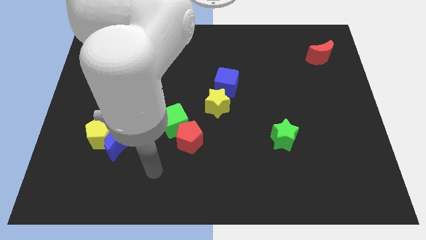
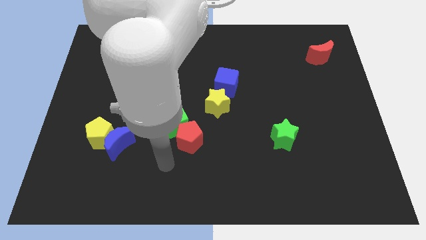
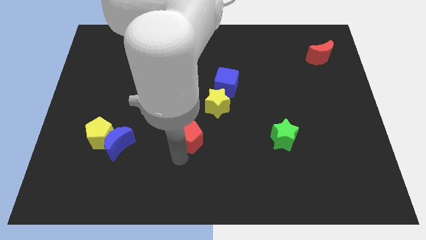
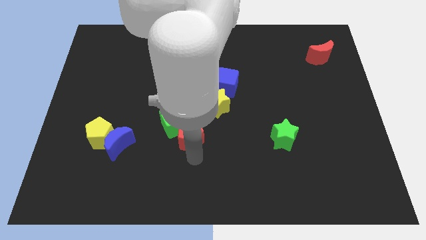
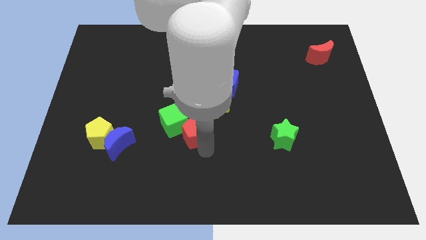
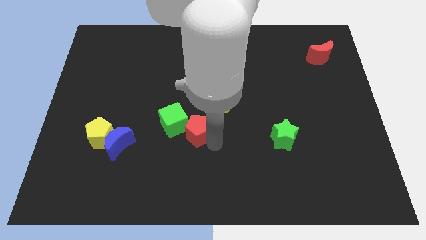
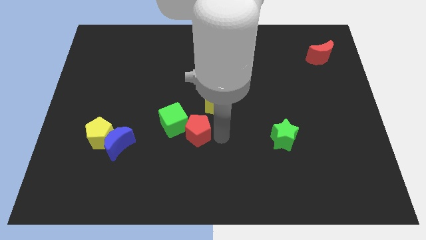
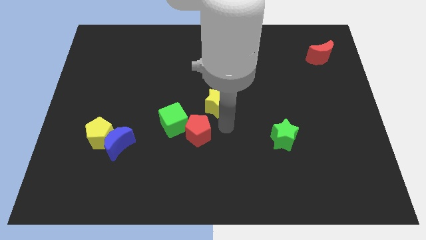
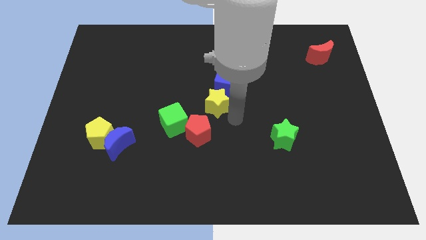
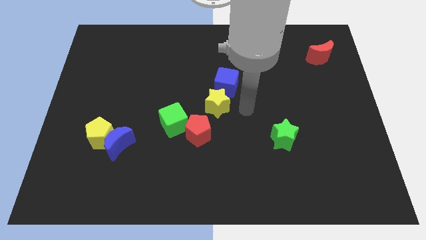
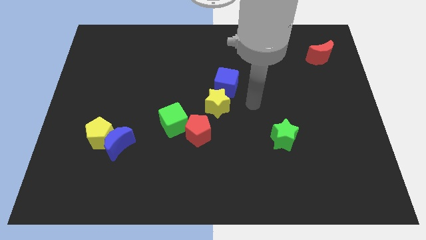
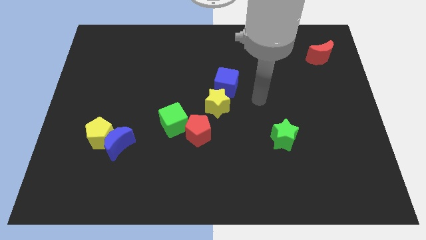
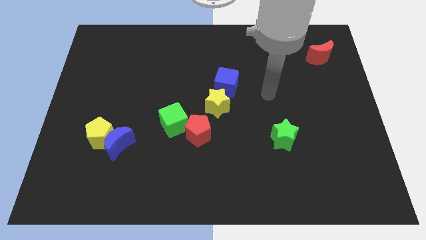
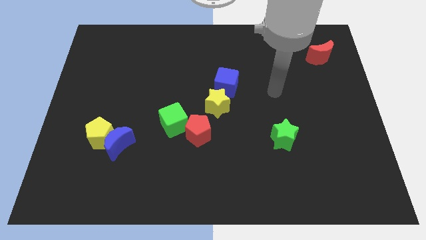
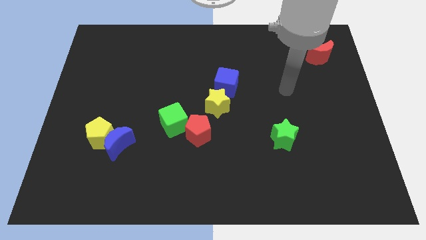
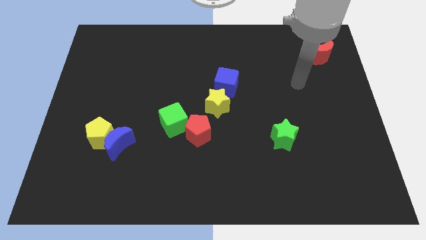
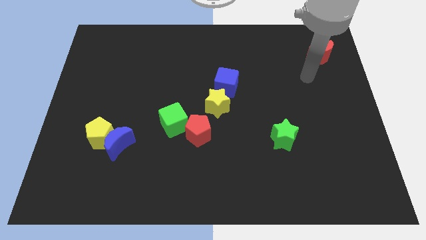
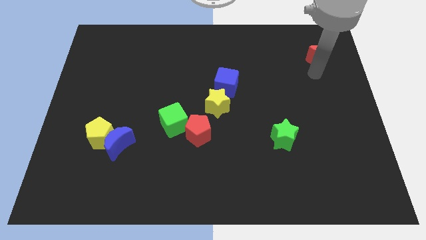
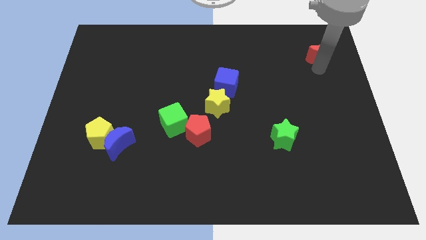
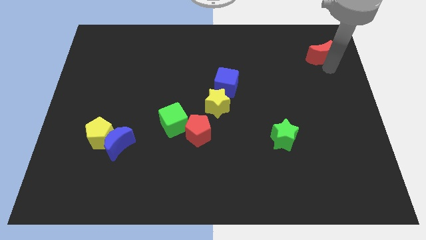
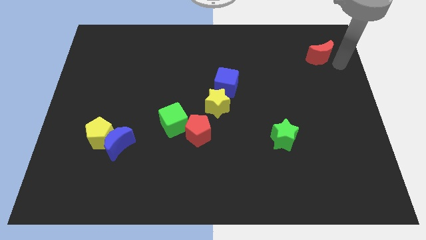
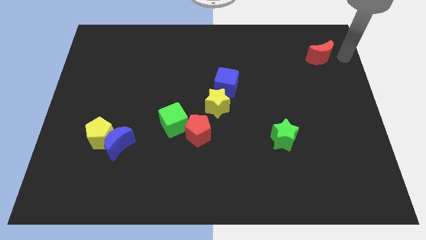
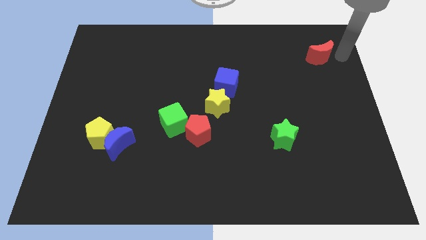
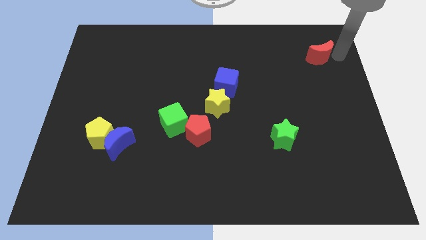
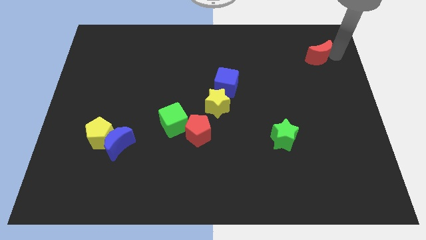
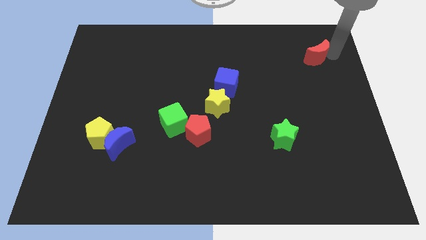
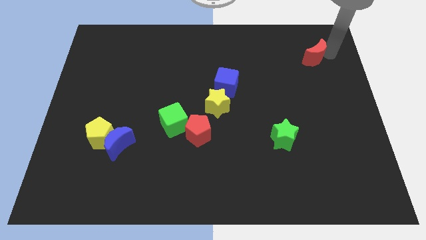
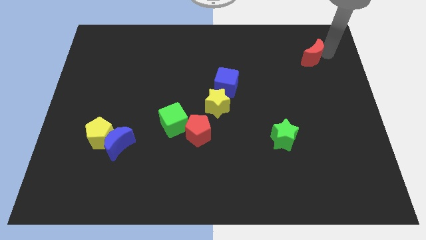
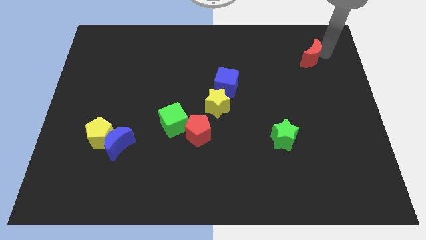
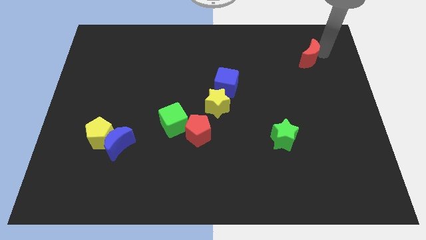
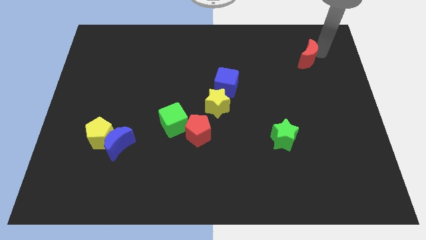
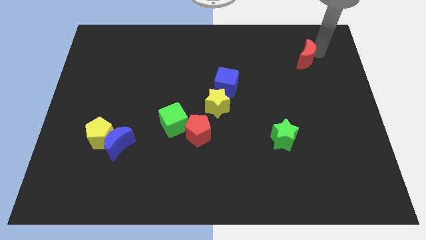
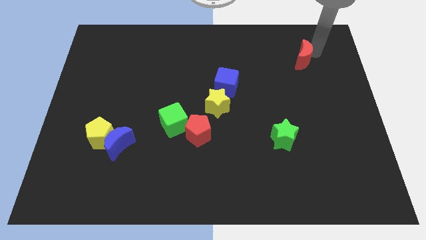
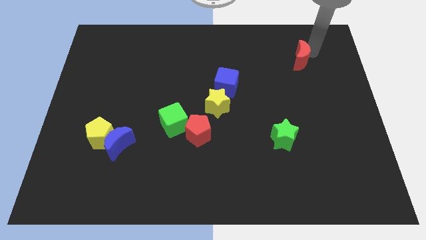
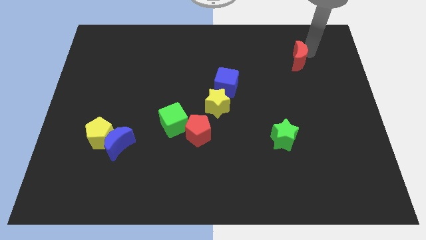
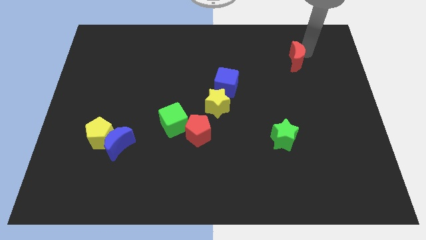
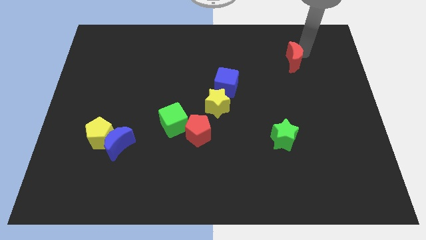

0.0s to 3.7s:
slide the red moon to the left a little

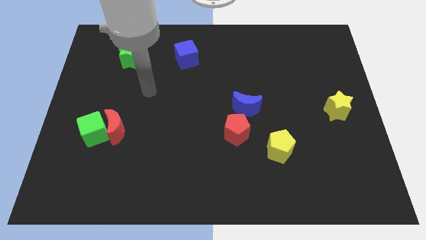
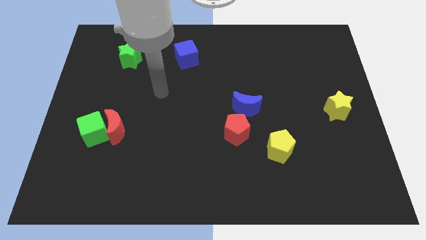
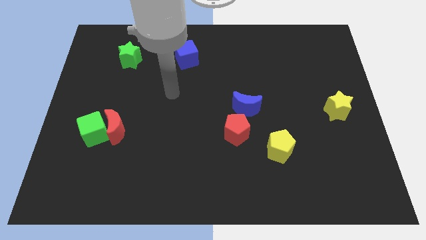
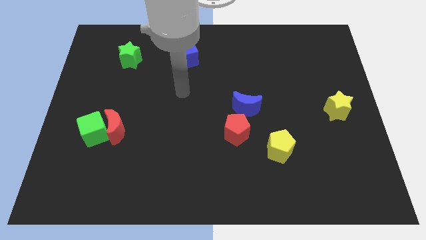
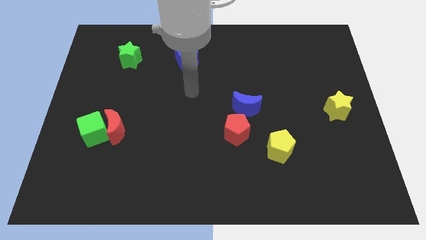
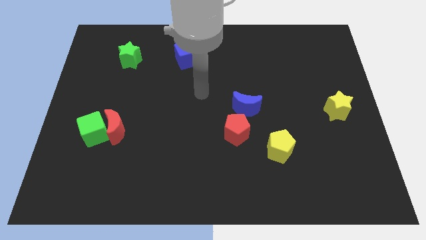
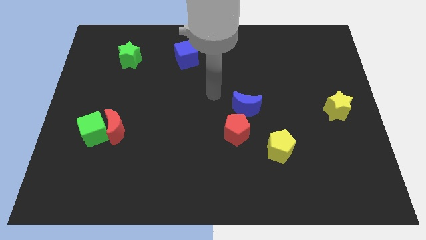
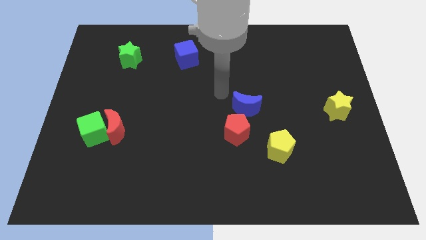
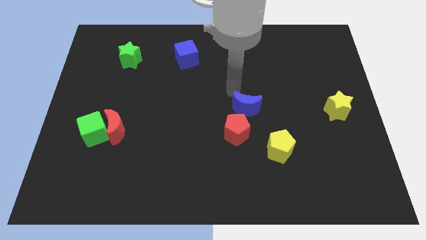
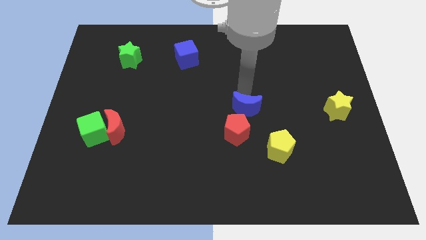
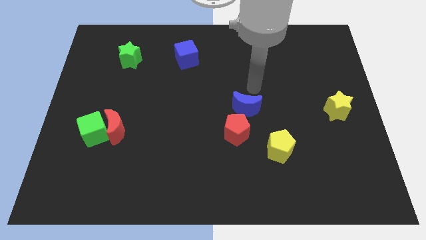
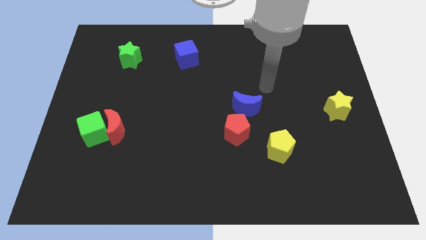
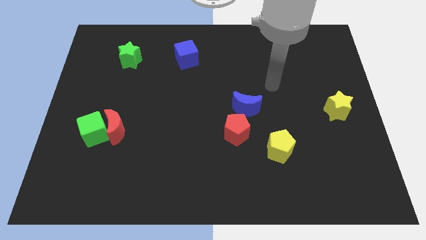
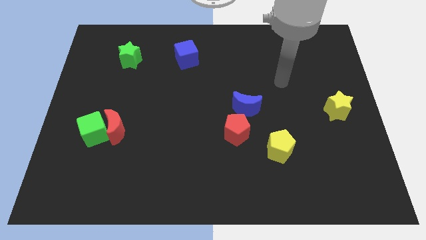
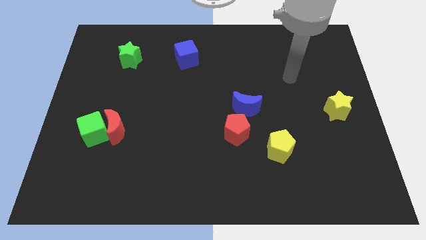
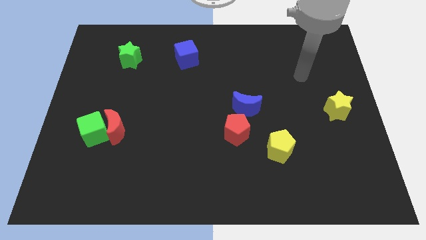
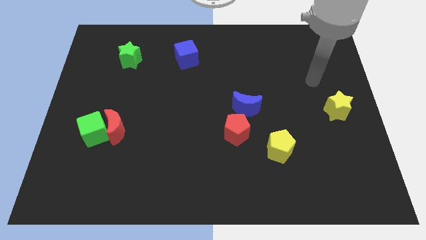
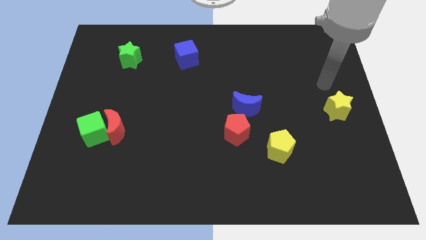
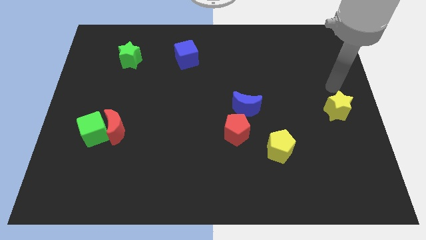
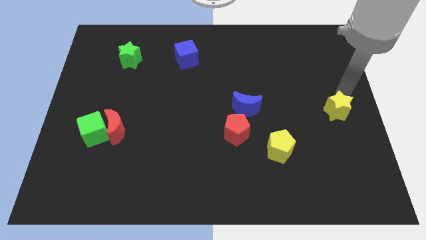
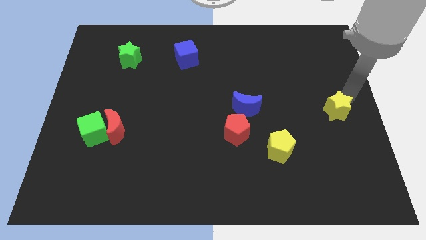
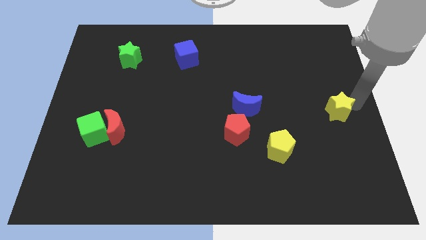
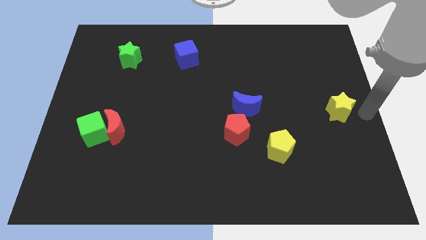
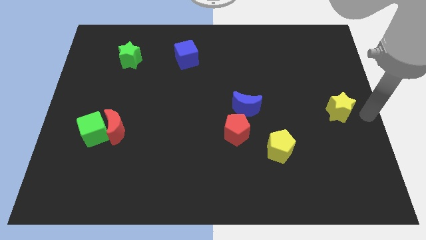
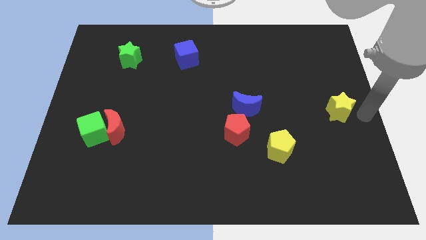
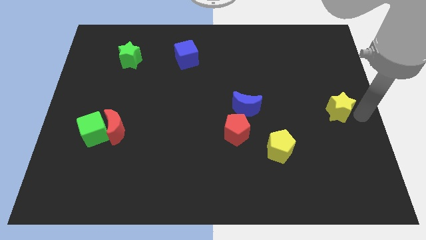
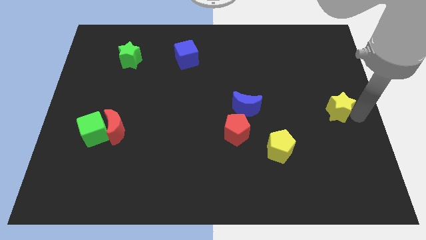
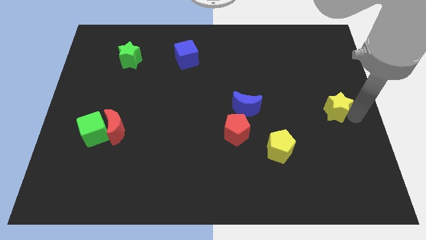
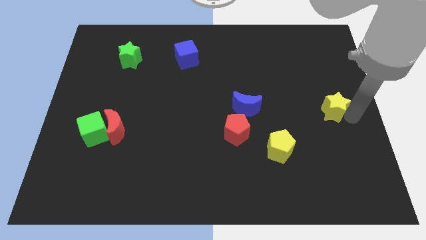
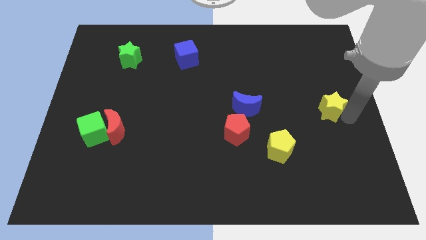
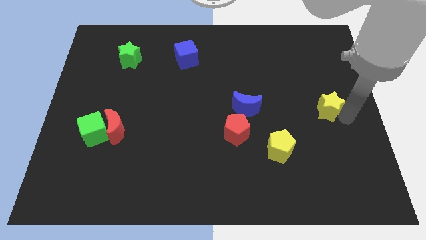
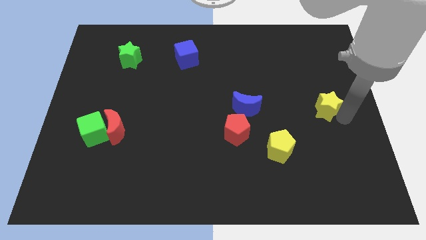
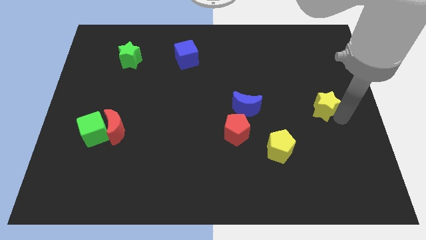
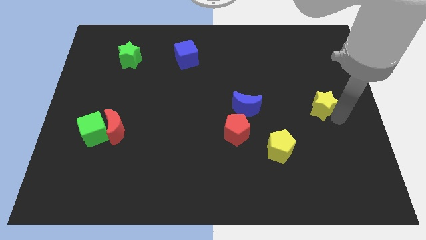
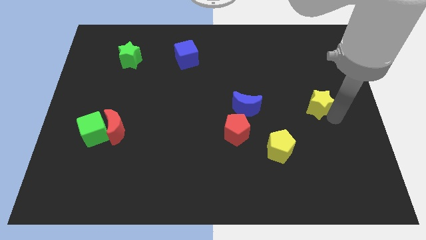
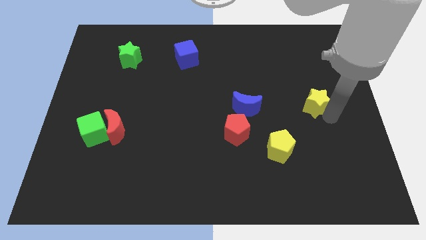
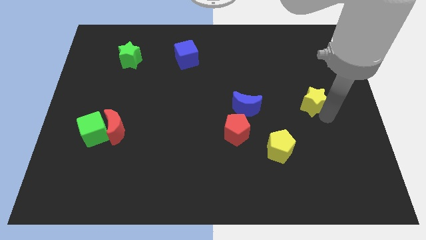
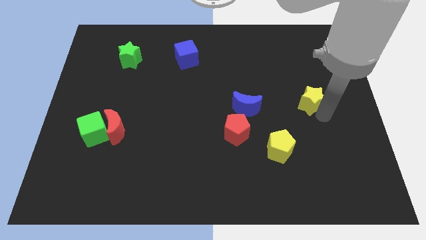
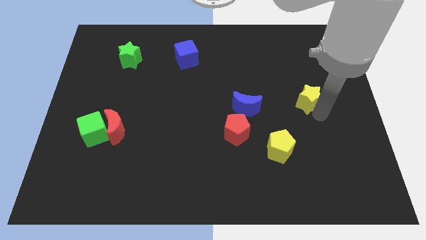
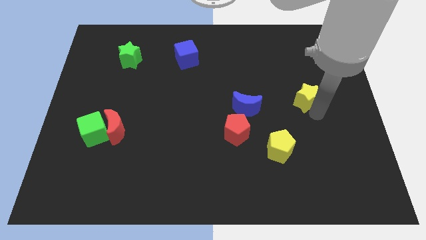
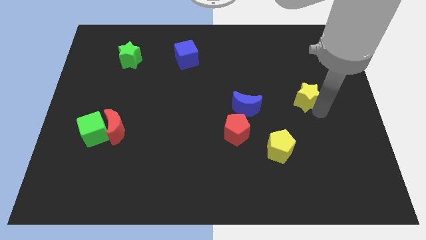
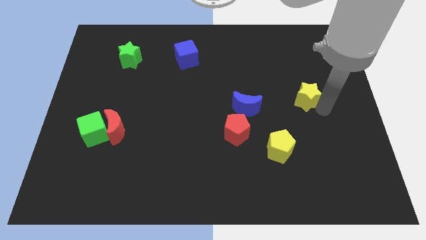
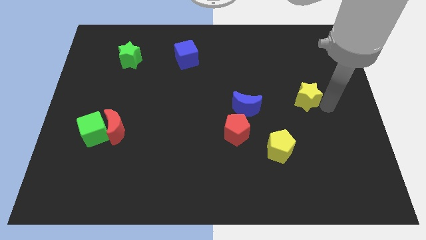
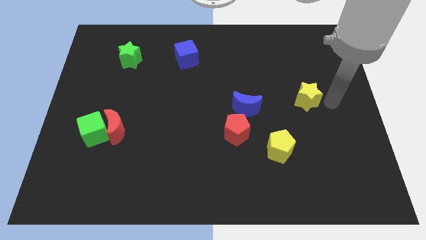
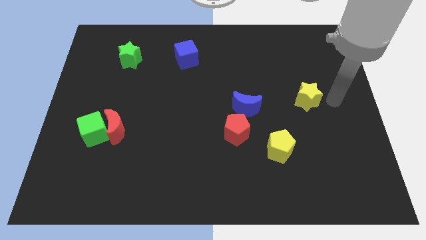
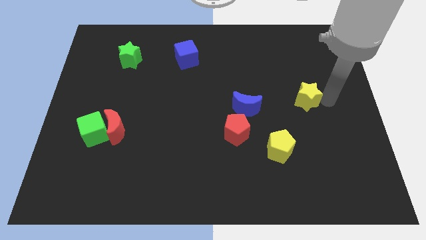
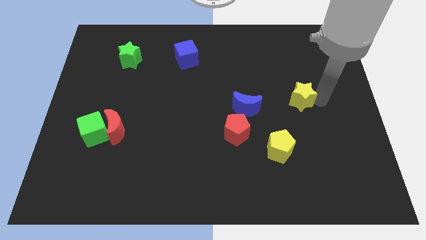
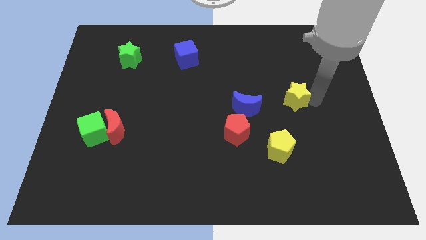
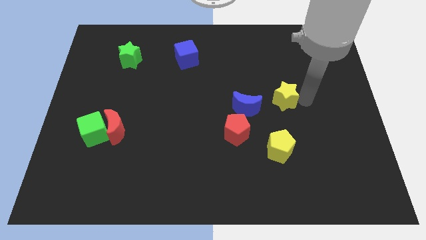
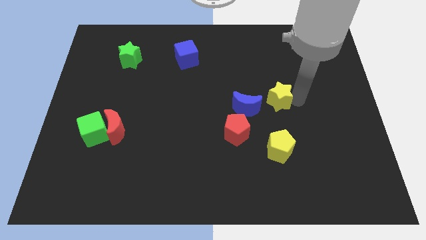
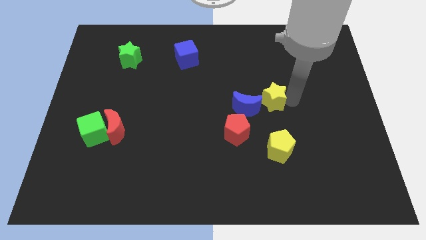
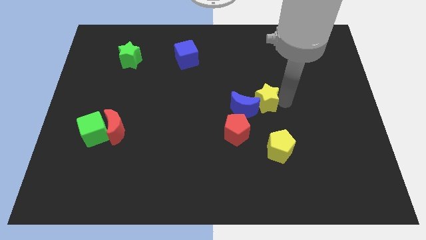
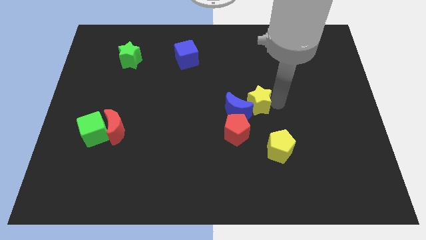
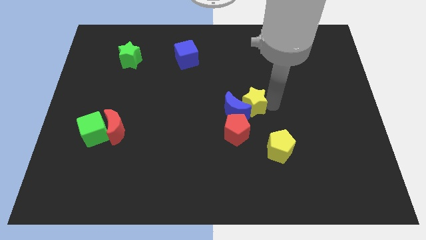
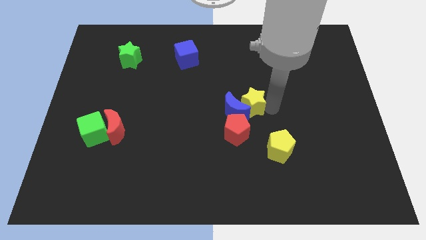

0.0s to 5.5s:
move the yellow star left
